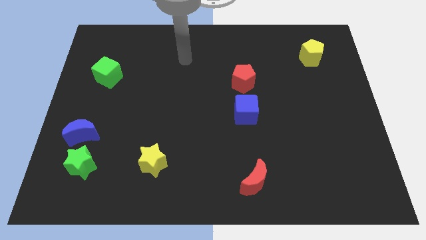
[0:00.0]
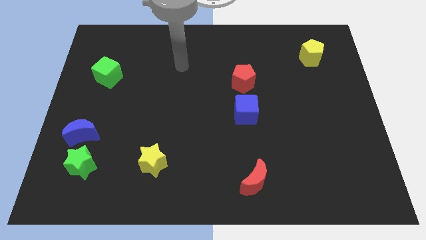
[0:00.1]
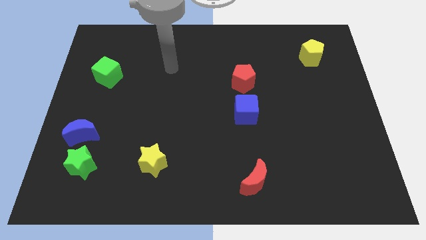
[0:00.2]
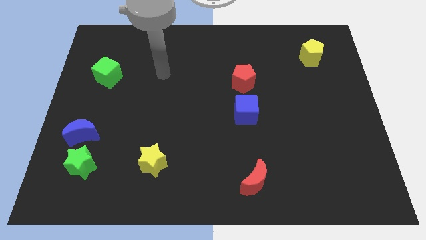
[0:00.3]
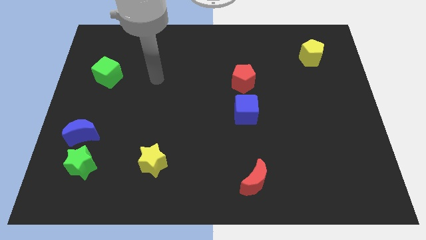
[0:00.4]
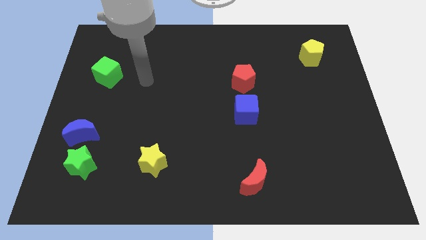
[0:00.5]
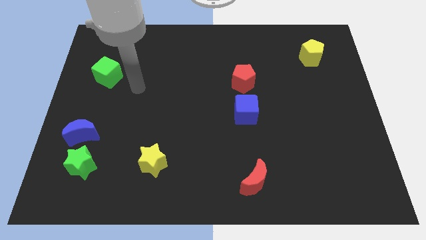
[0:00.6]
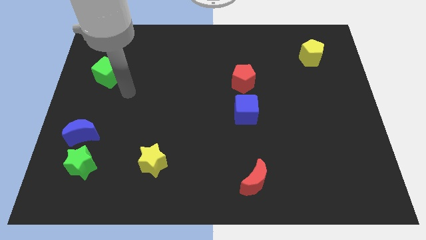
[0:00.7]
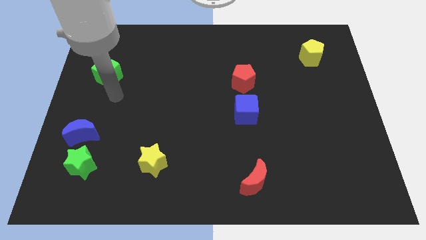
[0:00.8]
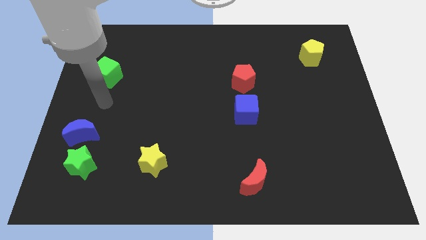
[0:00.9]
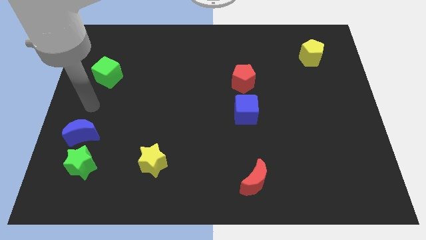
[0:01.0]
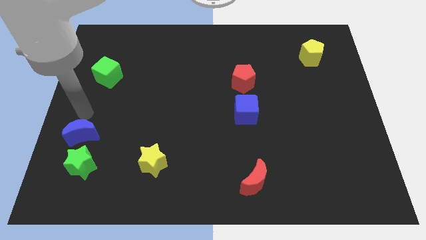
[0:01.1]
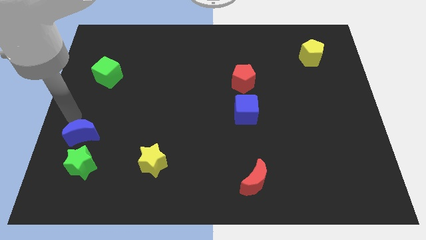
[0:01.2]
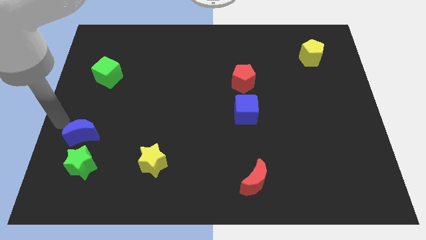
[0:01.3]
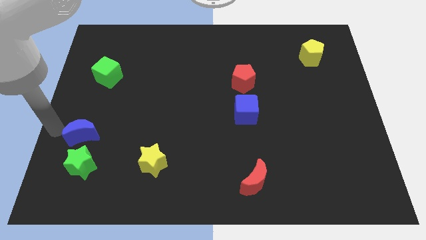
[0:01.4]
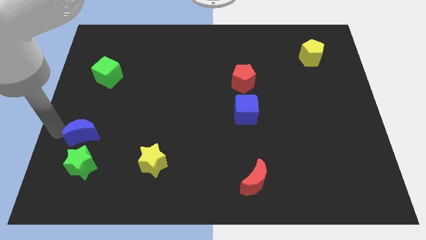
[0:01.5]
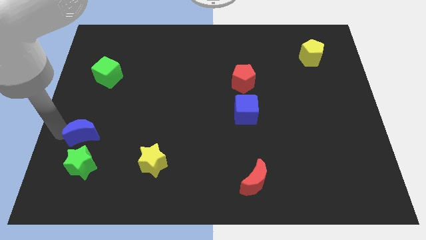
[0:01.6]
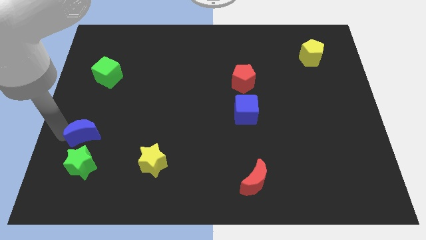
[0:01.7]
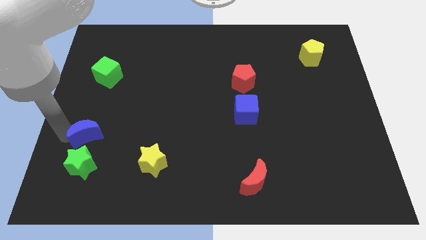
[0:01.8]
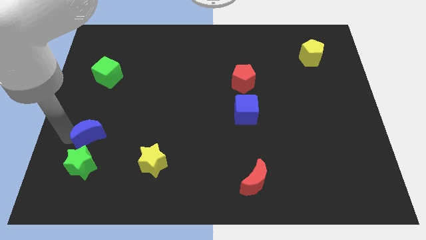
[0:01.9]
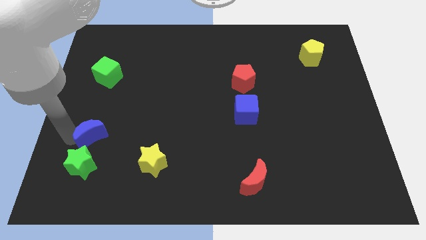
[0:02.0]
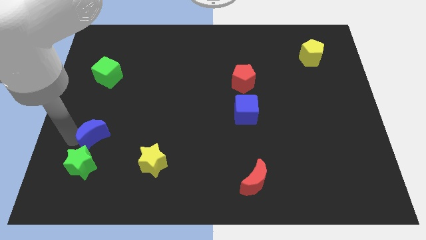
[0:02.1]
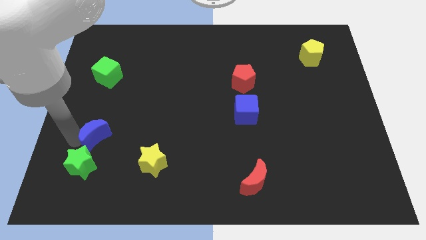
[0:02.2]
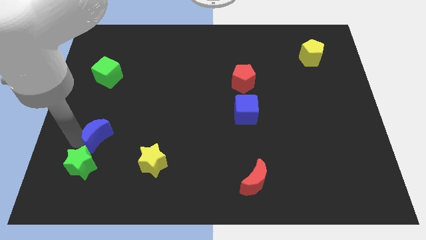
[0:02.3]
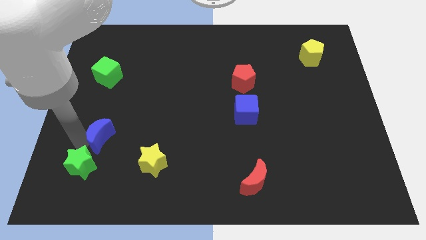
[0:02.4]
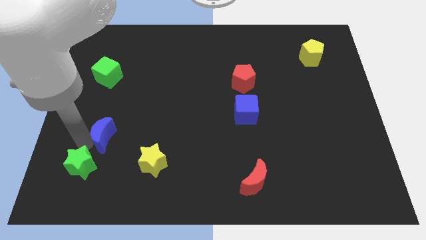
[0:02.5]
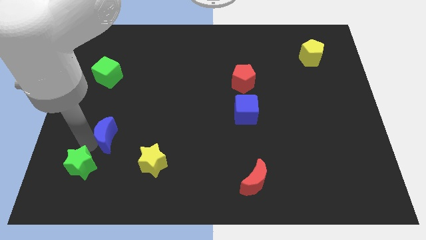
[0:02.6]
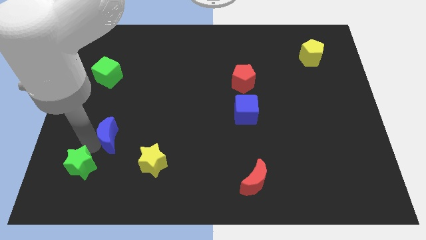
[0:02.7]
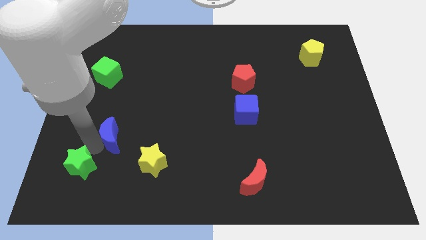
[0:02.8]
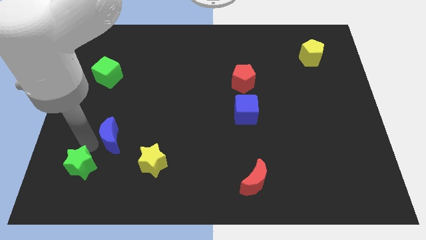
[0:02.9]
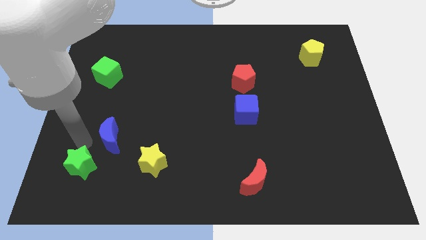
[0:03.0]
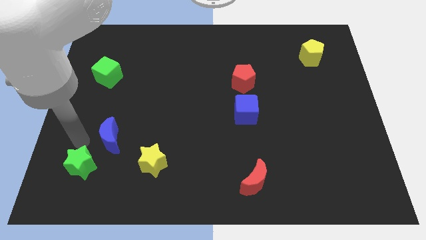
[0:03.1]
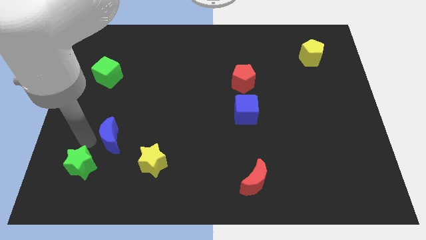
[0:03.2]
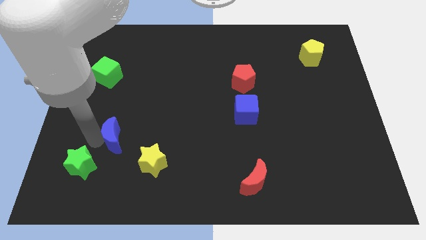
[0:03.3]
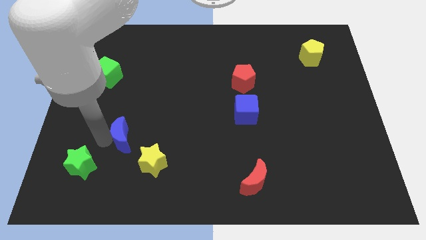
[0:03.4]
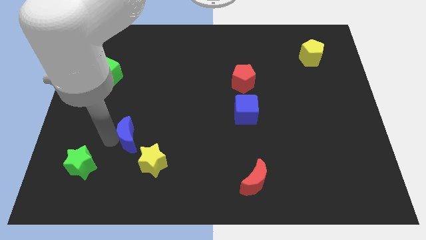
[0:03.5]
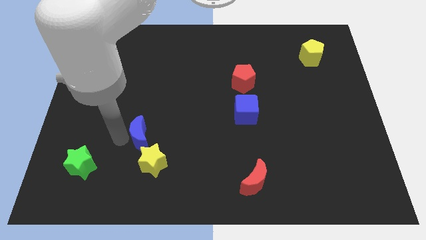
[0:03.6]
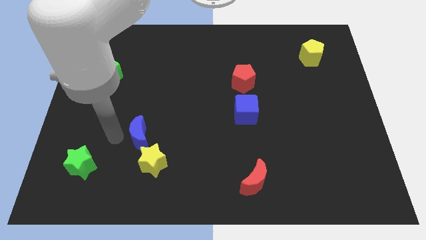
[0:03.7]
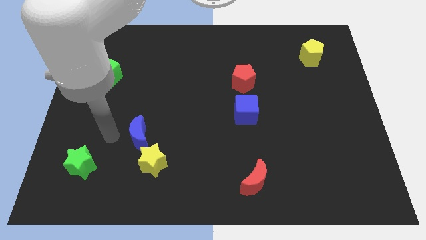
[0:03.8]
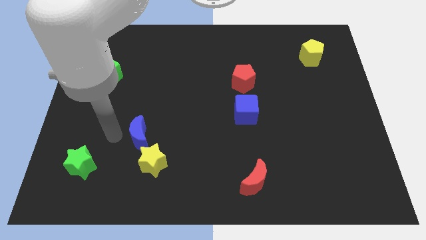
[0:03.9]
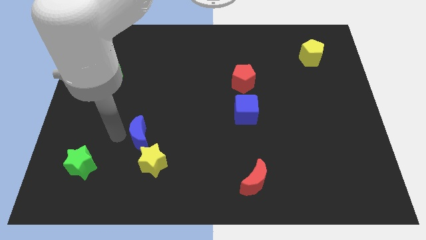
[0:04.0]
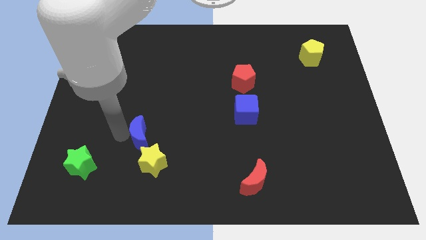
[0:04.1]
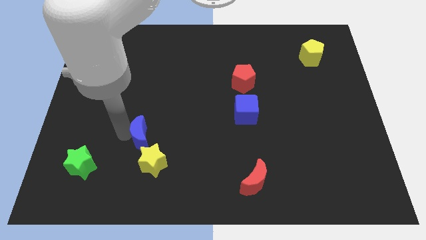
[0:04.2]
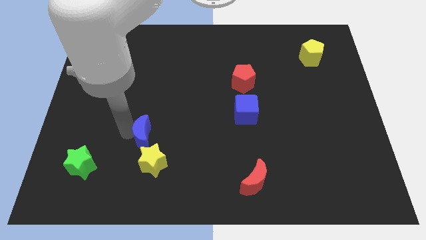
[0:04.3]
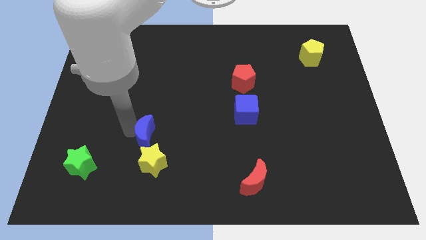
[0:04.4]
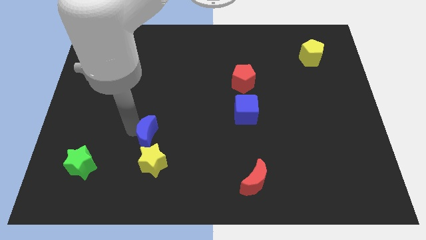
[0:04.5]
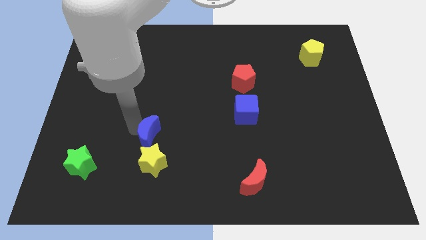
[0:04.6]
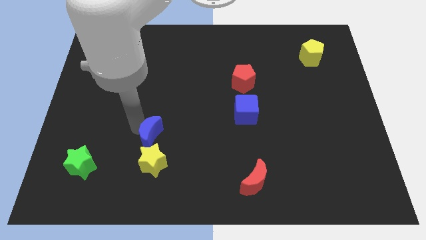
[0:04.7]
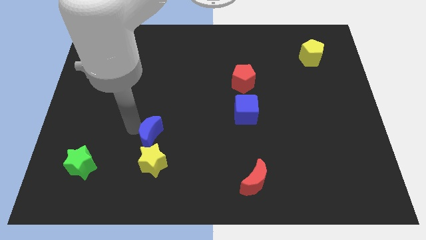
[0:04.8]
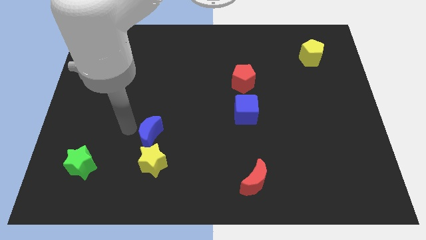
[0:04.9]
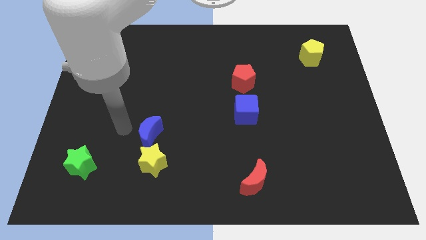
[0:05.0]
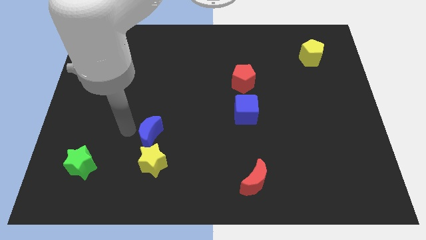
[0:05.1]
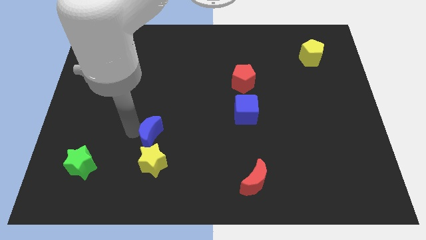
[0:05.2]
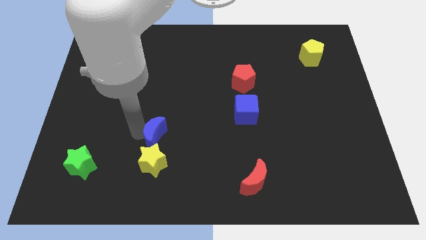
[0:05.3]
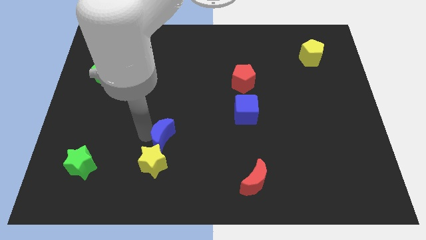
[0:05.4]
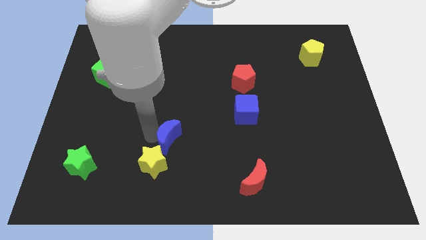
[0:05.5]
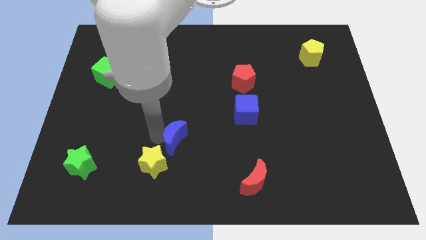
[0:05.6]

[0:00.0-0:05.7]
move the blue moon to the right

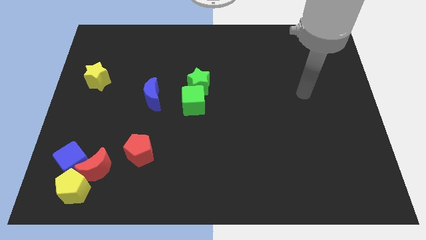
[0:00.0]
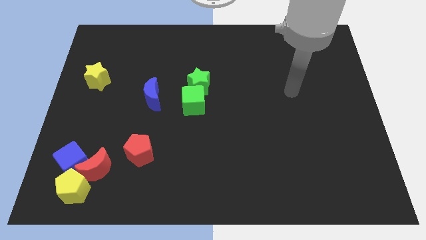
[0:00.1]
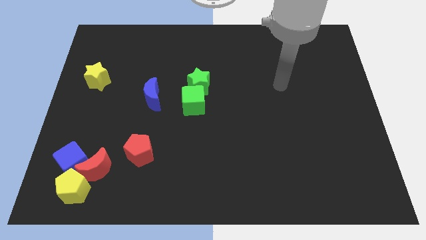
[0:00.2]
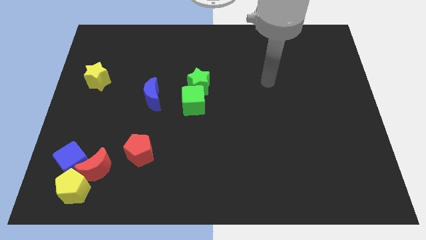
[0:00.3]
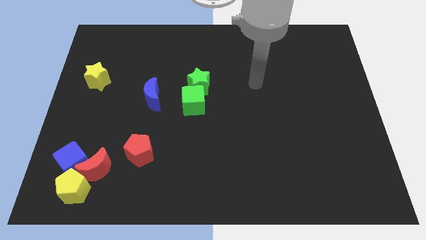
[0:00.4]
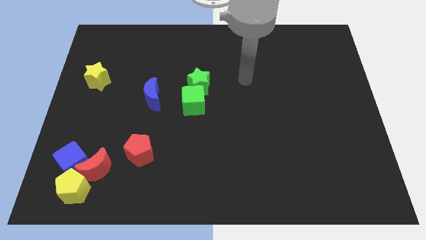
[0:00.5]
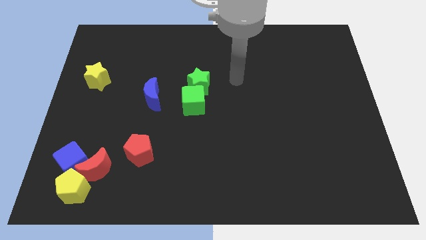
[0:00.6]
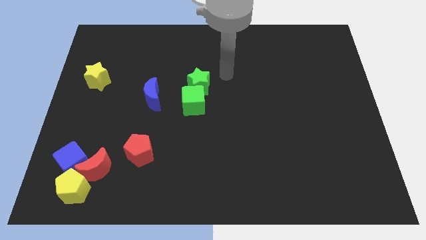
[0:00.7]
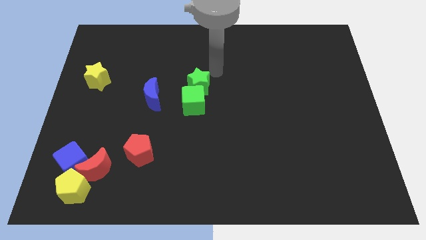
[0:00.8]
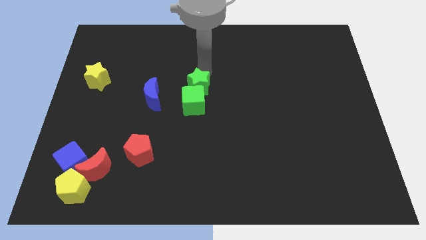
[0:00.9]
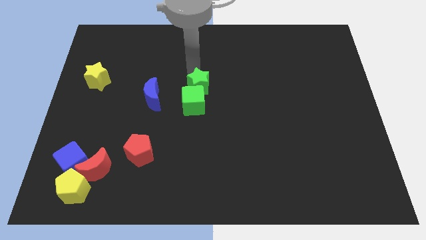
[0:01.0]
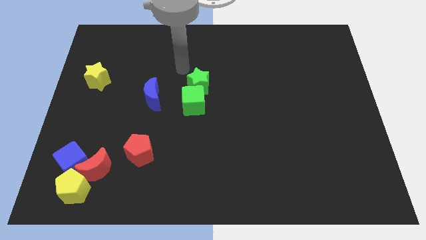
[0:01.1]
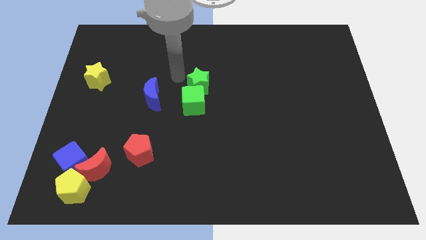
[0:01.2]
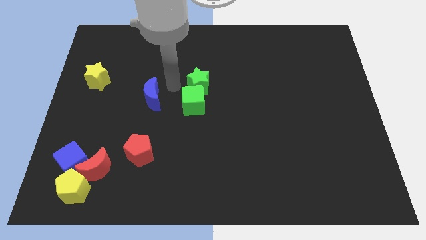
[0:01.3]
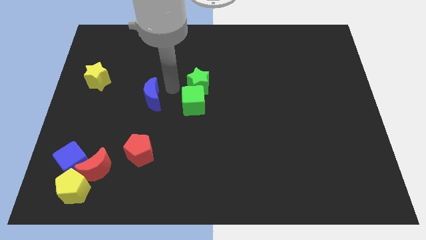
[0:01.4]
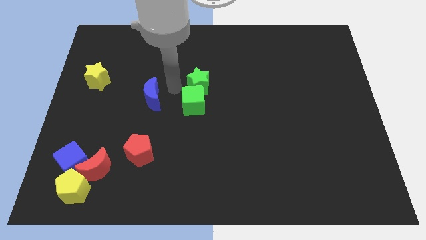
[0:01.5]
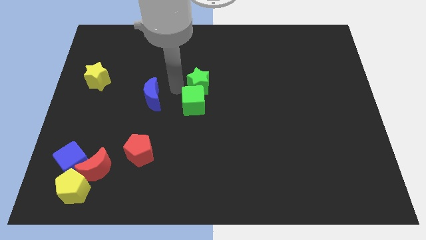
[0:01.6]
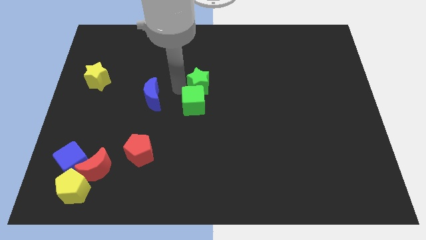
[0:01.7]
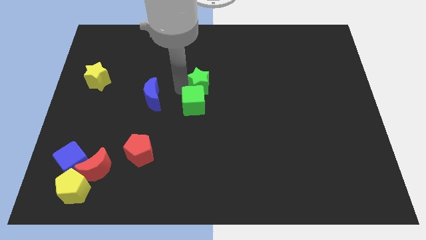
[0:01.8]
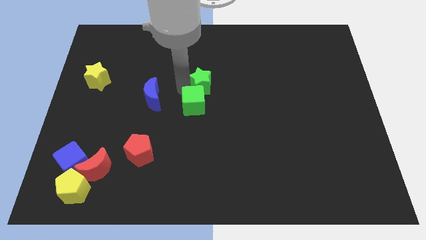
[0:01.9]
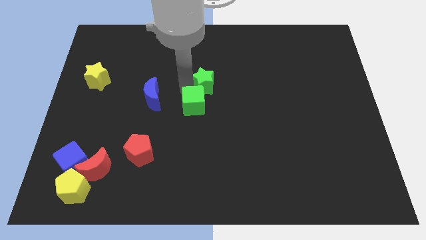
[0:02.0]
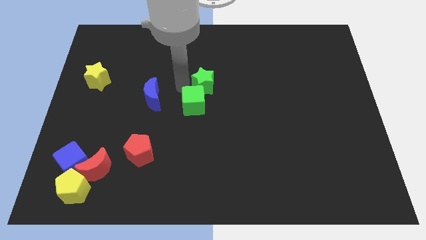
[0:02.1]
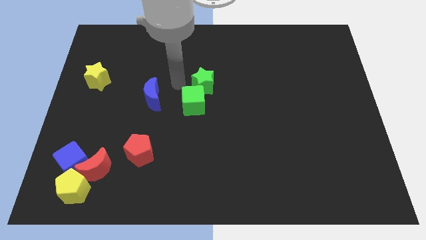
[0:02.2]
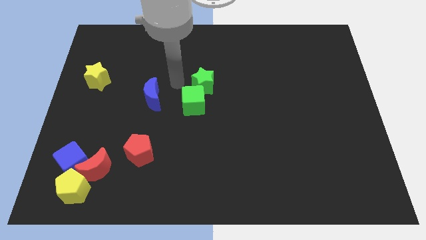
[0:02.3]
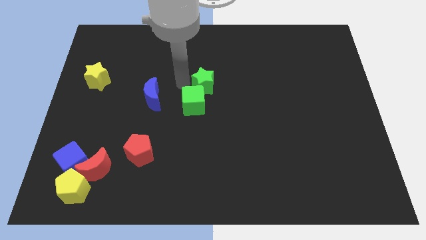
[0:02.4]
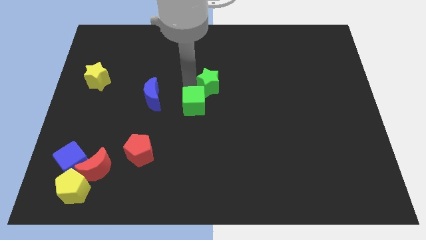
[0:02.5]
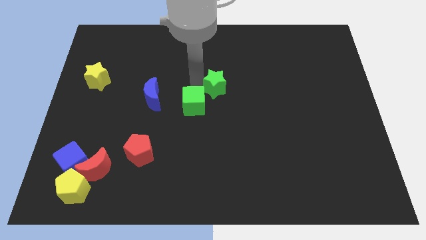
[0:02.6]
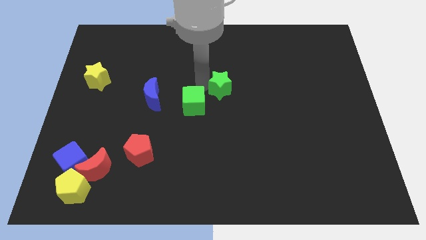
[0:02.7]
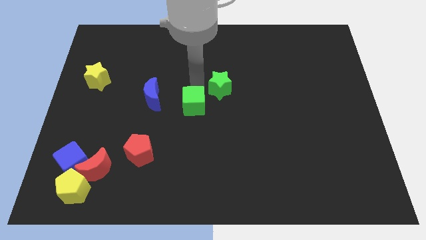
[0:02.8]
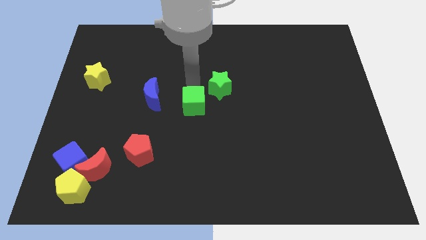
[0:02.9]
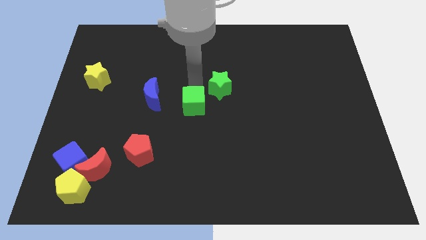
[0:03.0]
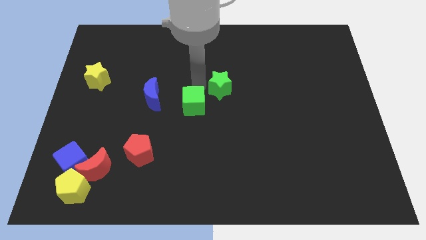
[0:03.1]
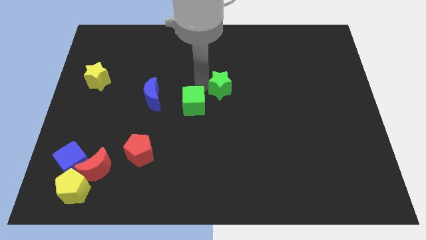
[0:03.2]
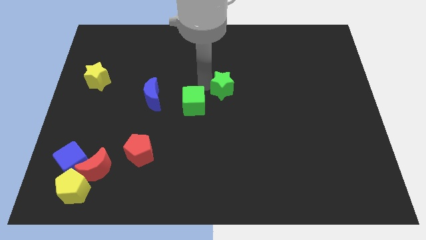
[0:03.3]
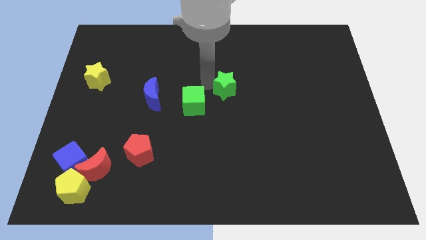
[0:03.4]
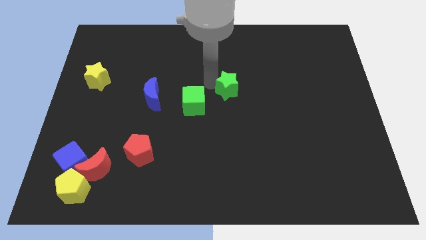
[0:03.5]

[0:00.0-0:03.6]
move the green star right slightly
